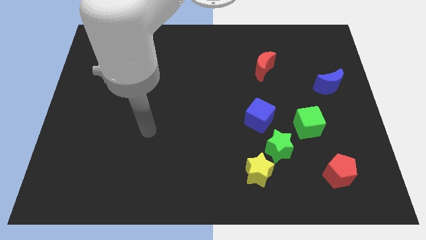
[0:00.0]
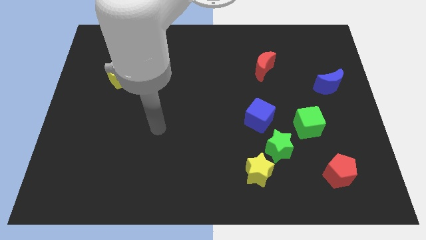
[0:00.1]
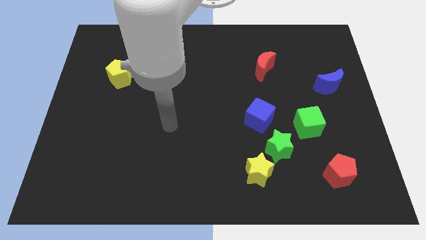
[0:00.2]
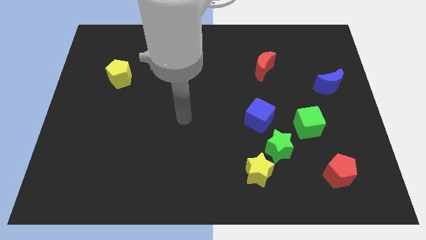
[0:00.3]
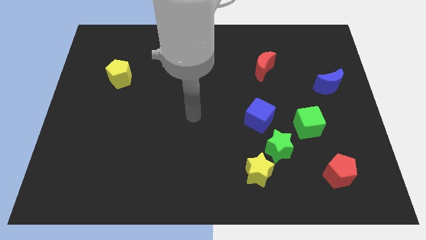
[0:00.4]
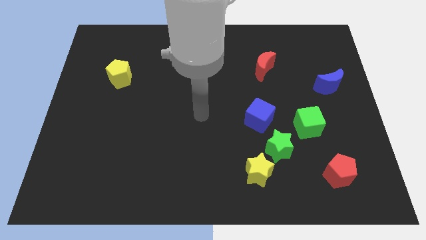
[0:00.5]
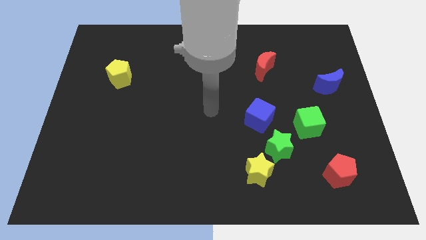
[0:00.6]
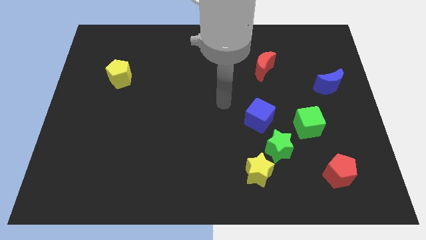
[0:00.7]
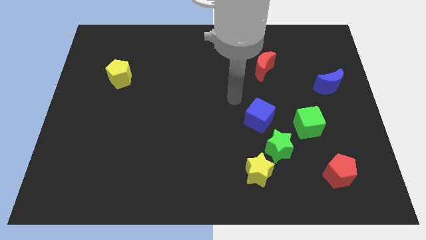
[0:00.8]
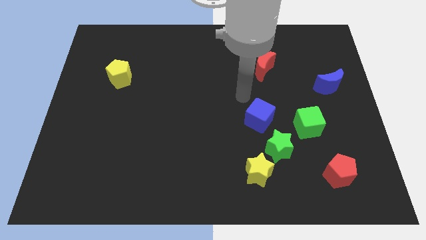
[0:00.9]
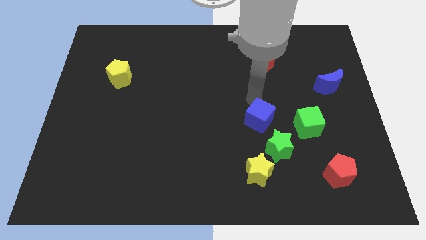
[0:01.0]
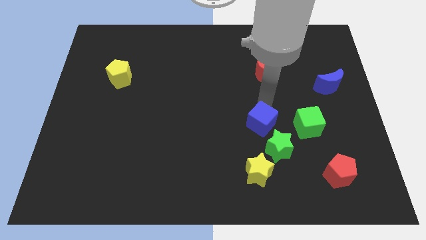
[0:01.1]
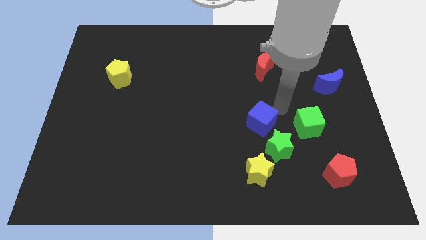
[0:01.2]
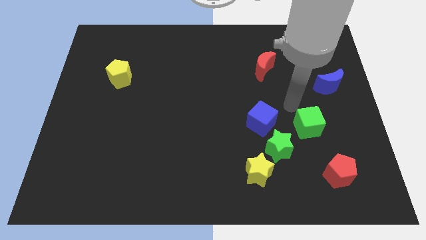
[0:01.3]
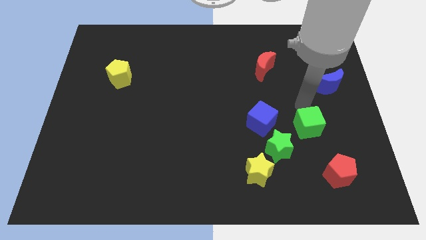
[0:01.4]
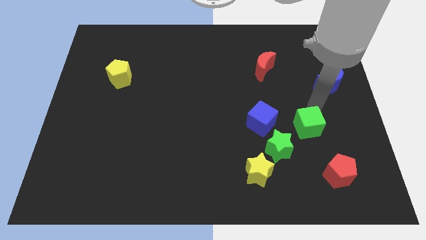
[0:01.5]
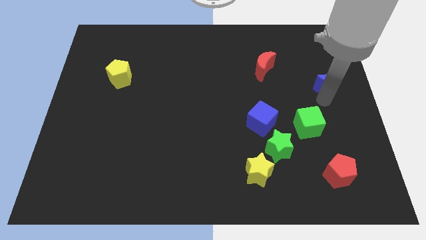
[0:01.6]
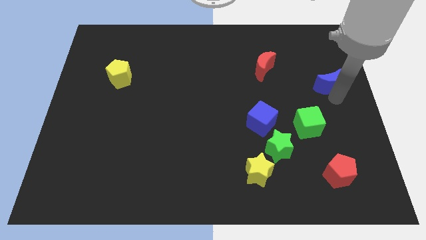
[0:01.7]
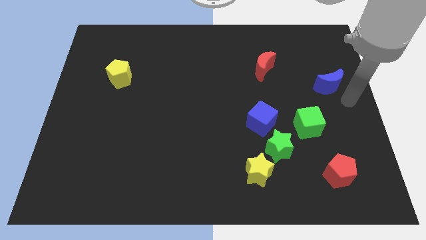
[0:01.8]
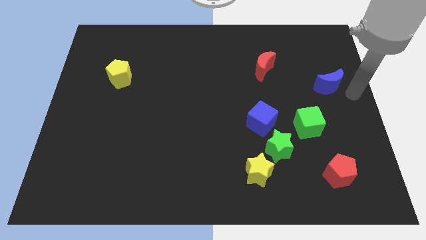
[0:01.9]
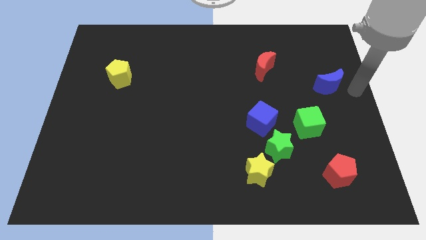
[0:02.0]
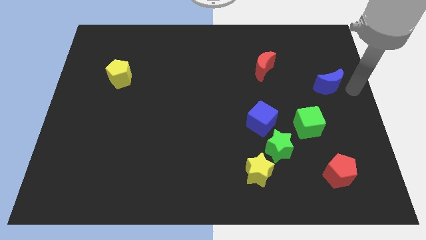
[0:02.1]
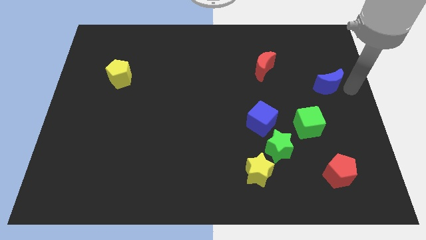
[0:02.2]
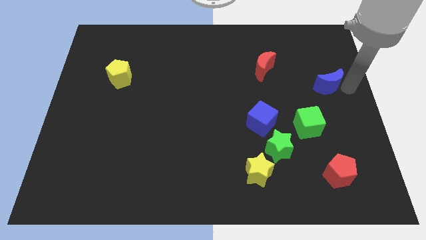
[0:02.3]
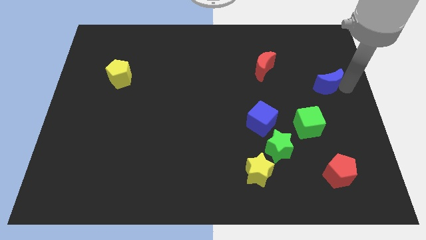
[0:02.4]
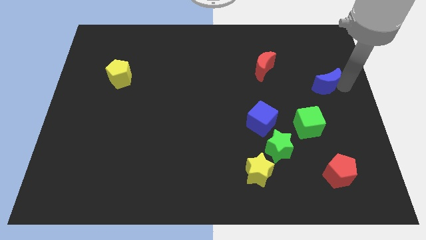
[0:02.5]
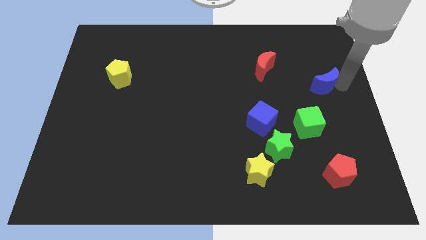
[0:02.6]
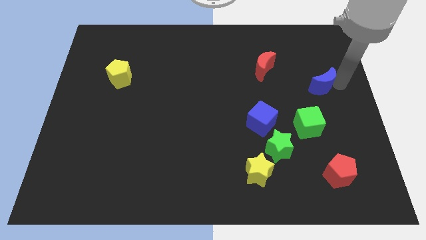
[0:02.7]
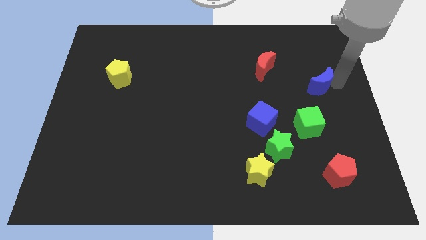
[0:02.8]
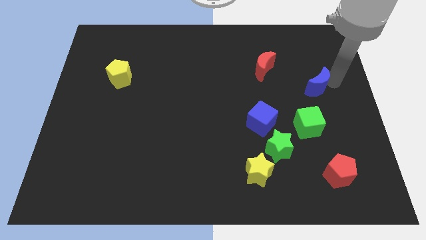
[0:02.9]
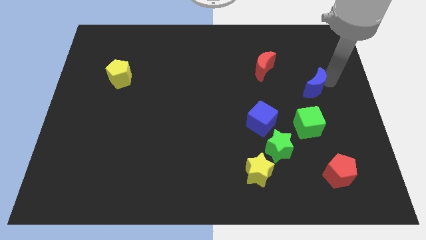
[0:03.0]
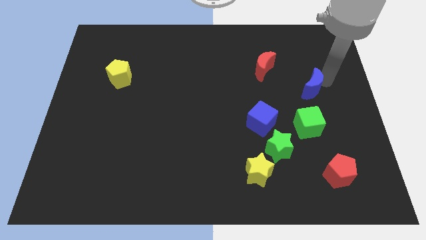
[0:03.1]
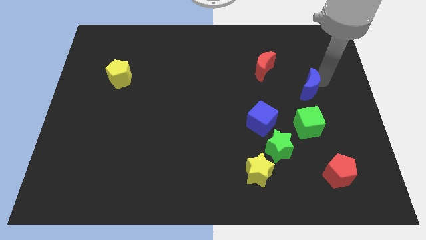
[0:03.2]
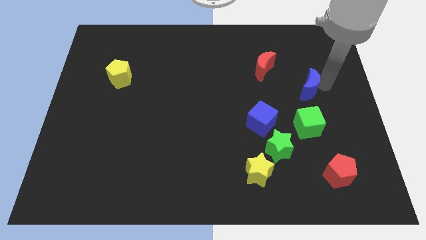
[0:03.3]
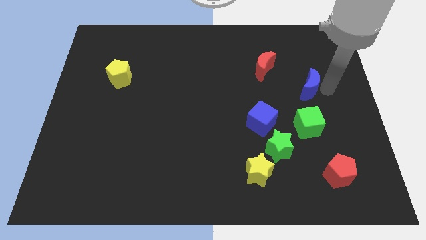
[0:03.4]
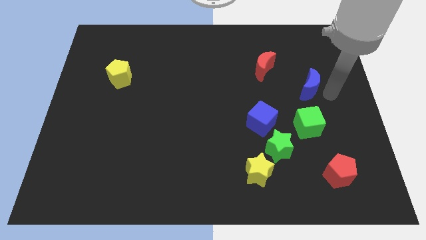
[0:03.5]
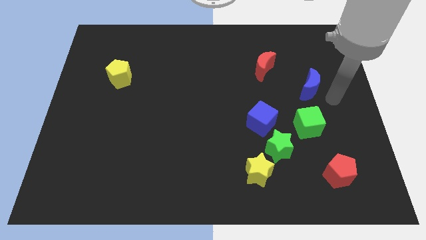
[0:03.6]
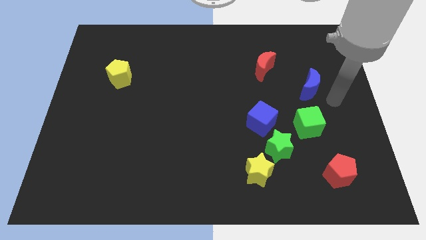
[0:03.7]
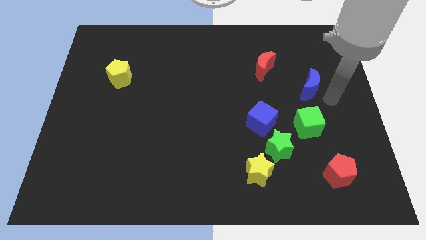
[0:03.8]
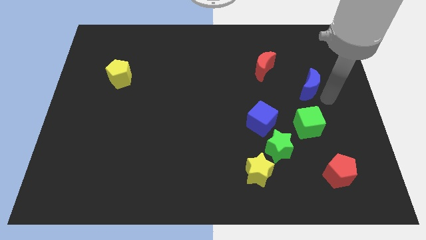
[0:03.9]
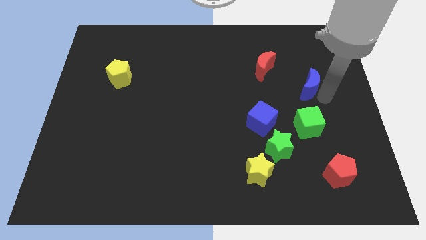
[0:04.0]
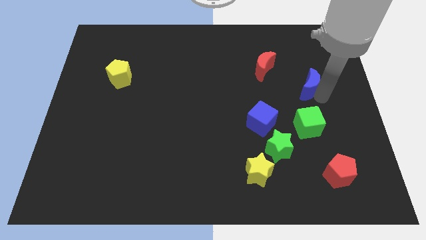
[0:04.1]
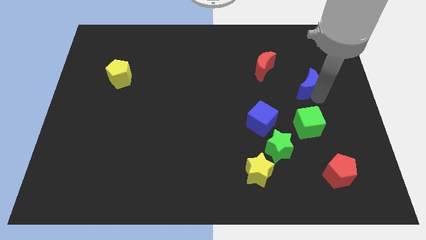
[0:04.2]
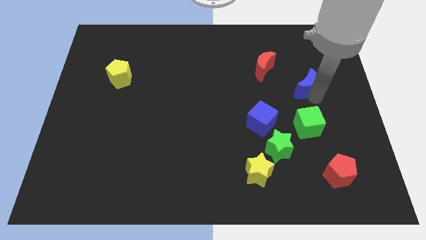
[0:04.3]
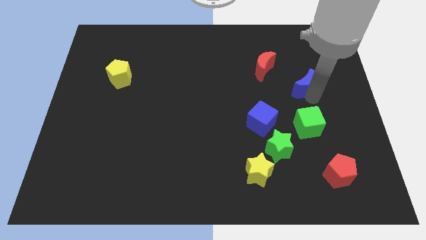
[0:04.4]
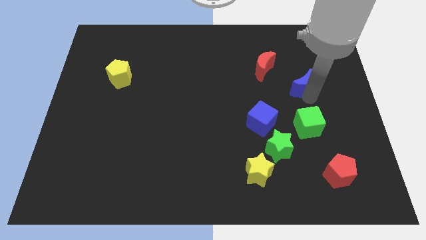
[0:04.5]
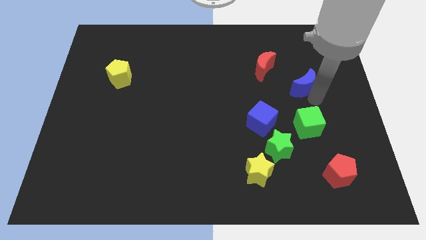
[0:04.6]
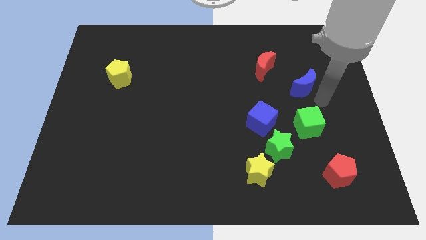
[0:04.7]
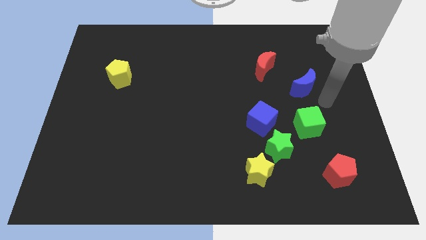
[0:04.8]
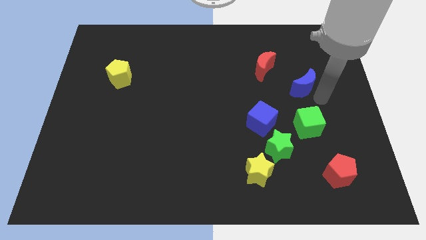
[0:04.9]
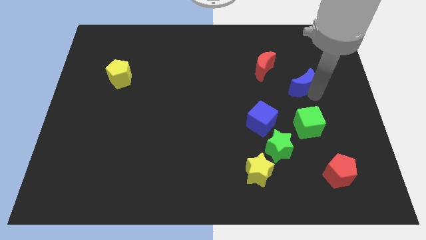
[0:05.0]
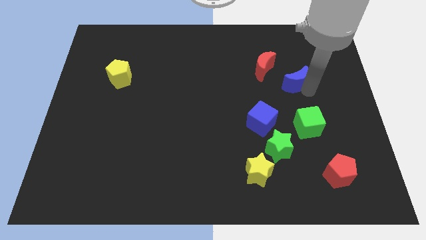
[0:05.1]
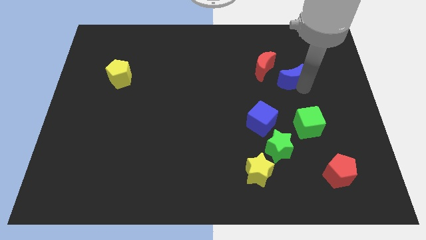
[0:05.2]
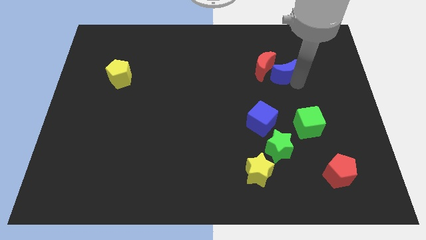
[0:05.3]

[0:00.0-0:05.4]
push the blue moon close to the red moon

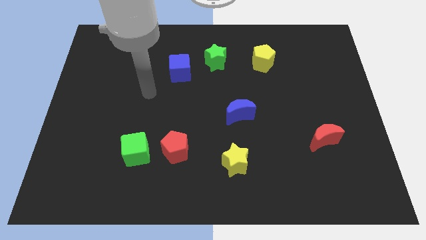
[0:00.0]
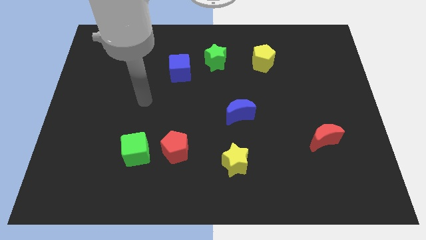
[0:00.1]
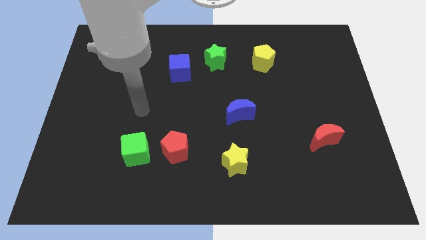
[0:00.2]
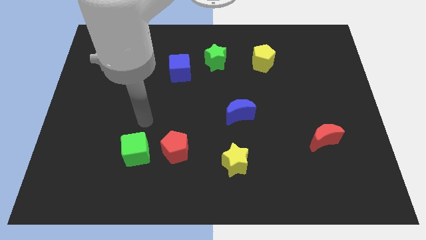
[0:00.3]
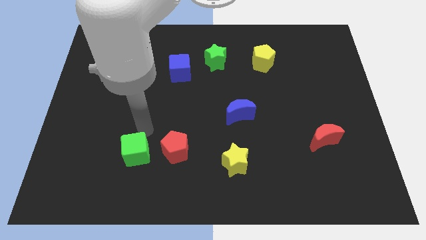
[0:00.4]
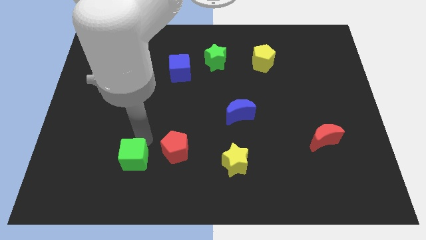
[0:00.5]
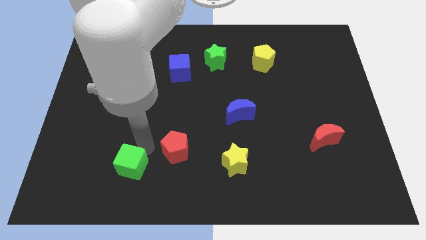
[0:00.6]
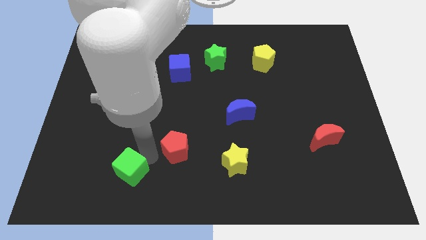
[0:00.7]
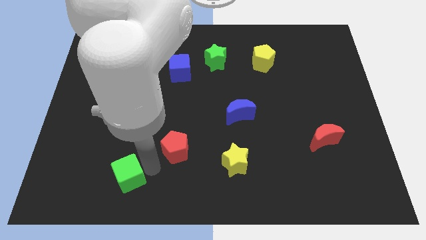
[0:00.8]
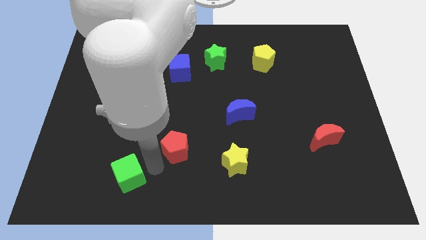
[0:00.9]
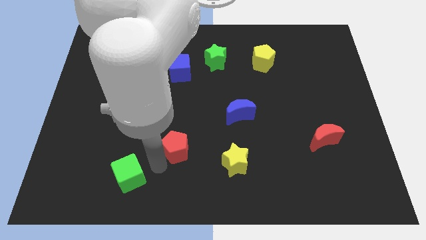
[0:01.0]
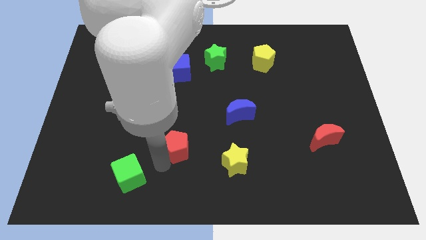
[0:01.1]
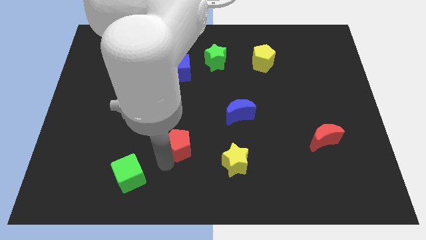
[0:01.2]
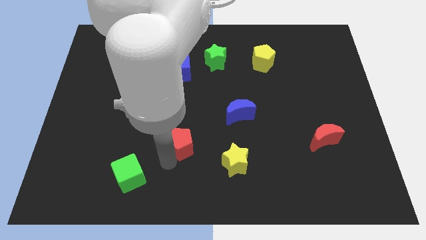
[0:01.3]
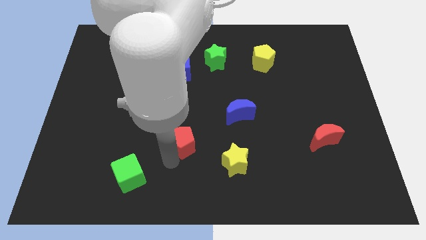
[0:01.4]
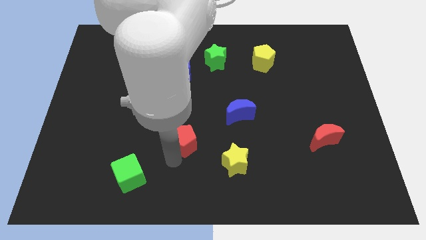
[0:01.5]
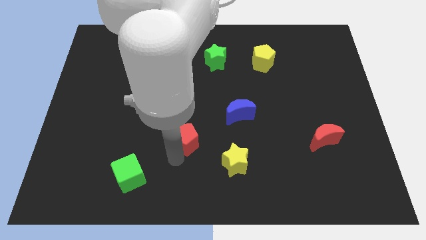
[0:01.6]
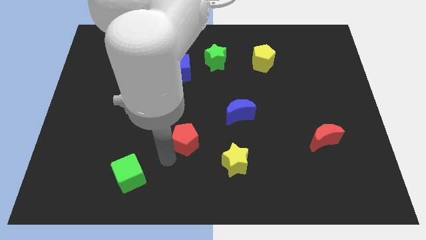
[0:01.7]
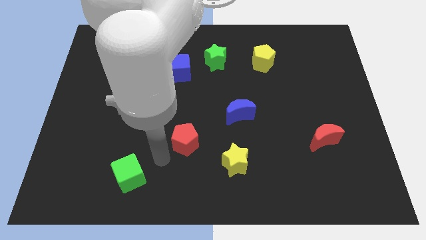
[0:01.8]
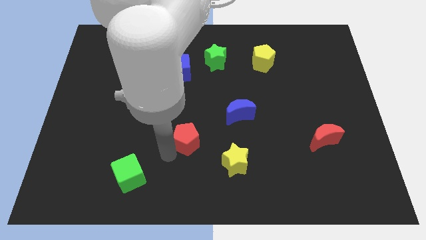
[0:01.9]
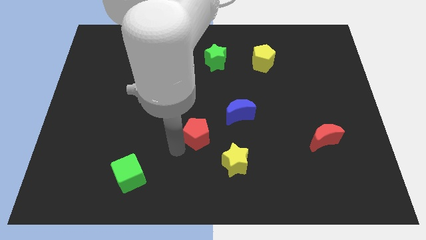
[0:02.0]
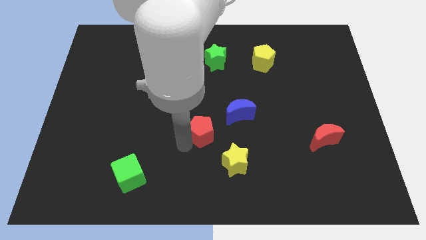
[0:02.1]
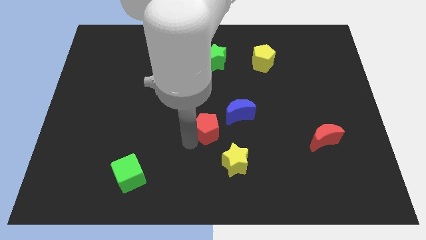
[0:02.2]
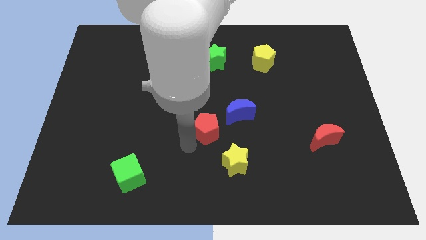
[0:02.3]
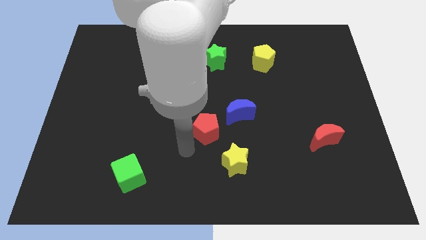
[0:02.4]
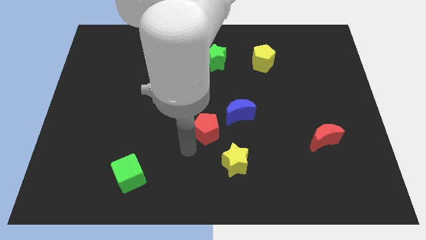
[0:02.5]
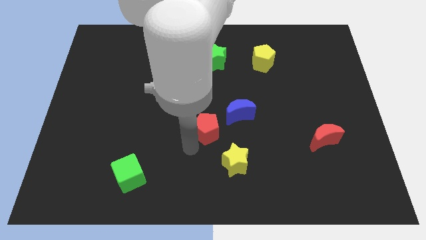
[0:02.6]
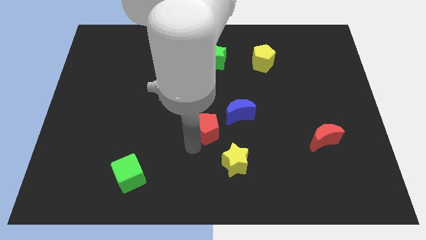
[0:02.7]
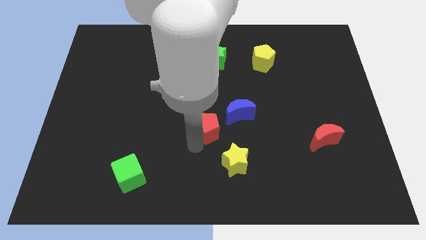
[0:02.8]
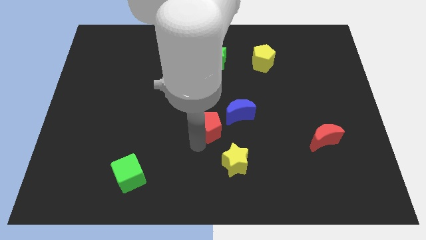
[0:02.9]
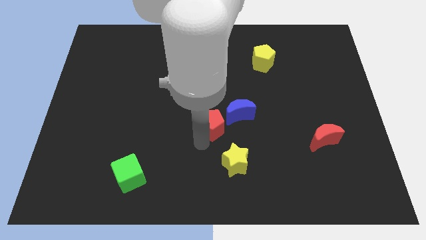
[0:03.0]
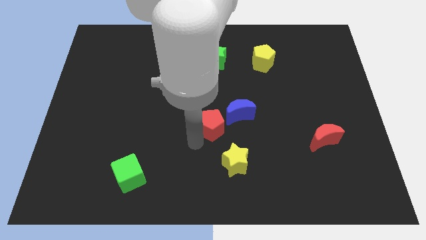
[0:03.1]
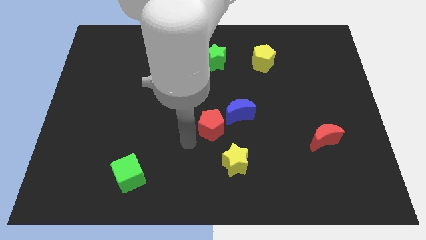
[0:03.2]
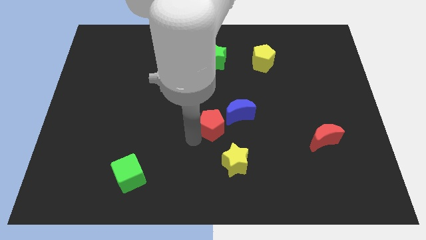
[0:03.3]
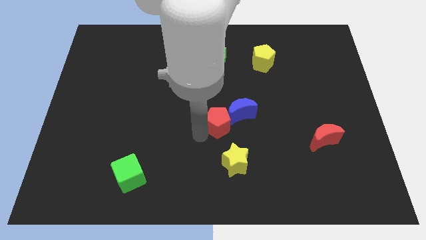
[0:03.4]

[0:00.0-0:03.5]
push the red pentagon close to the blue moon
